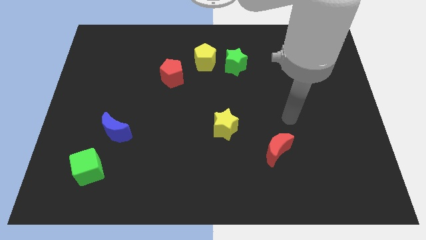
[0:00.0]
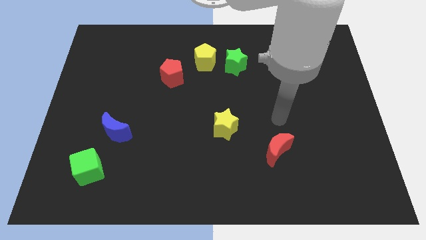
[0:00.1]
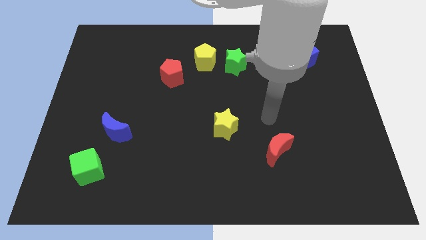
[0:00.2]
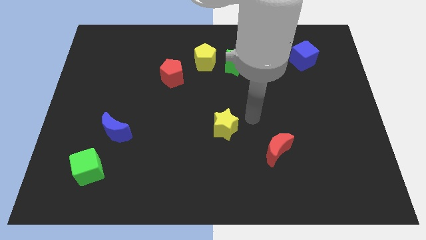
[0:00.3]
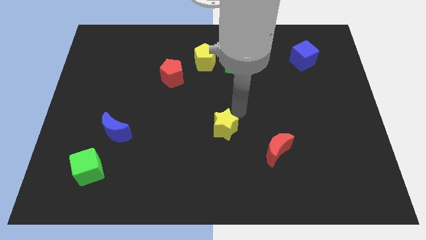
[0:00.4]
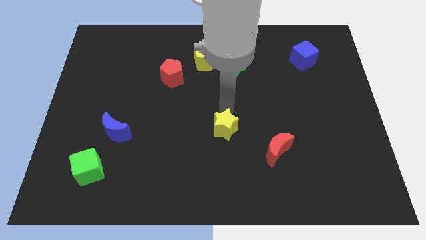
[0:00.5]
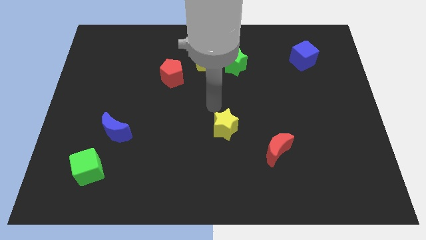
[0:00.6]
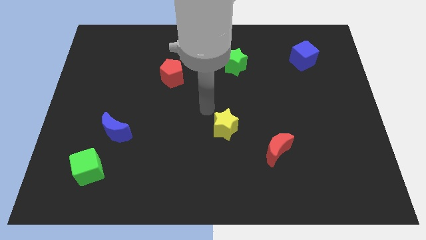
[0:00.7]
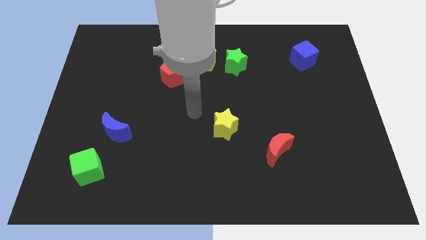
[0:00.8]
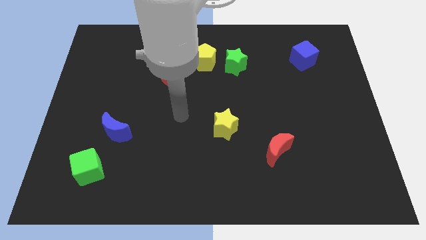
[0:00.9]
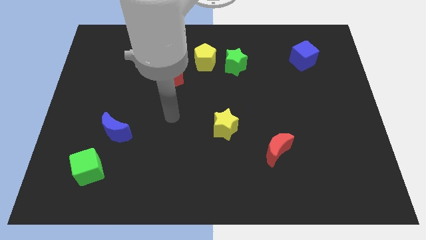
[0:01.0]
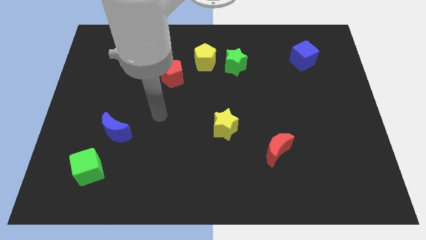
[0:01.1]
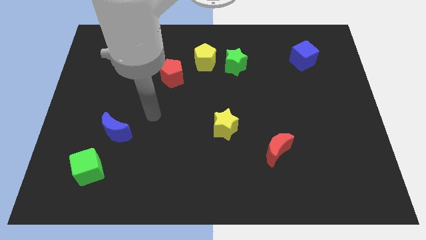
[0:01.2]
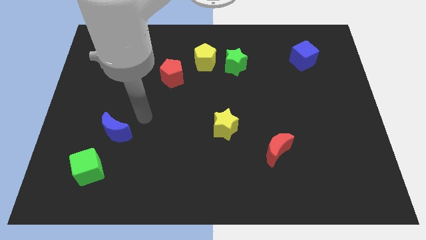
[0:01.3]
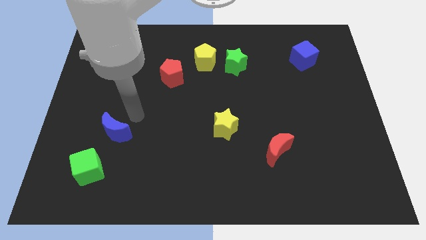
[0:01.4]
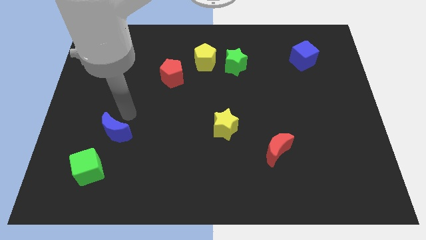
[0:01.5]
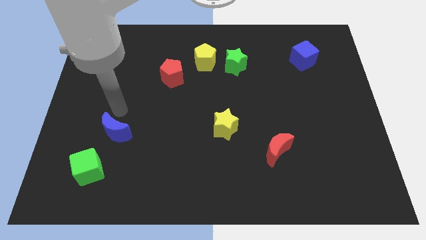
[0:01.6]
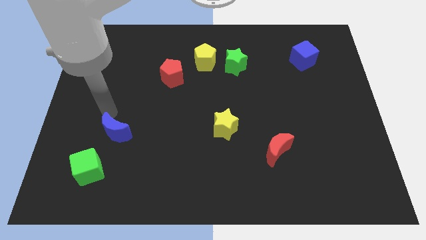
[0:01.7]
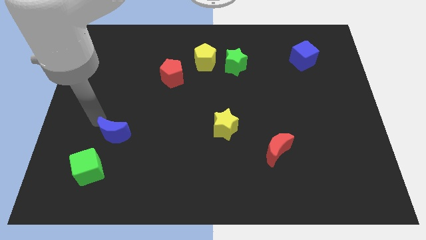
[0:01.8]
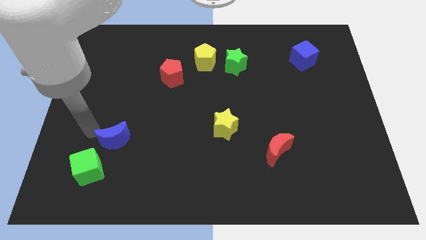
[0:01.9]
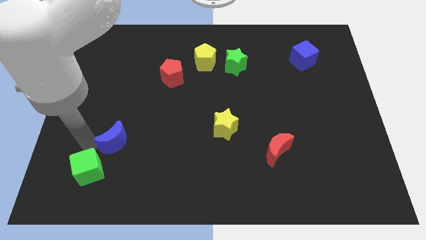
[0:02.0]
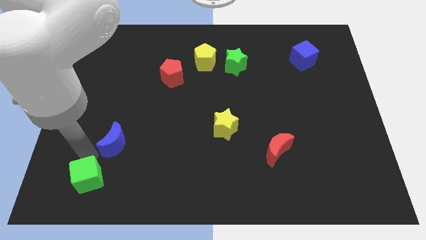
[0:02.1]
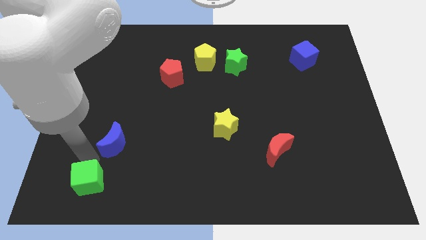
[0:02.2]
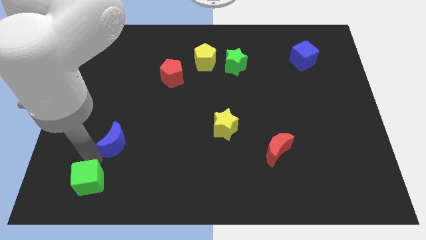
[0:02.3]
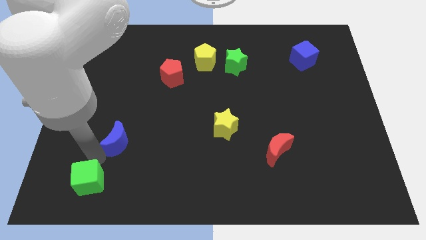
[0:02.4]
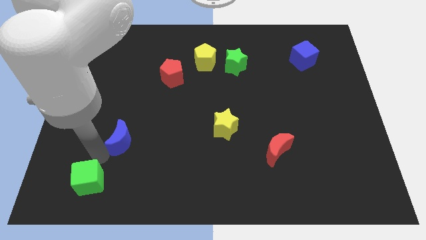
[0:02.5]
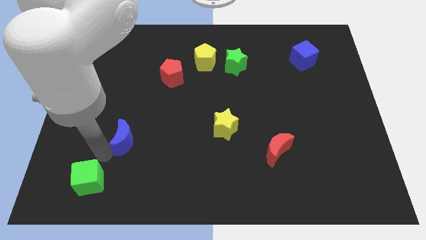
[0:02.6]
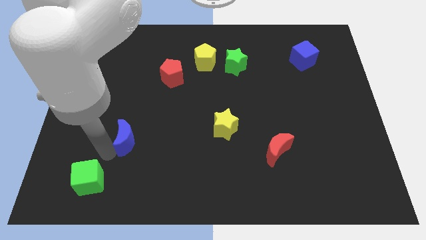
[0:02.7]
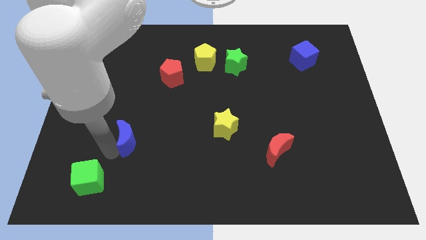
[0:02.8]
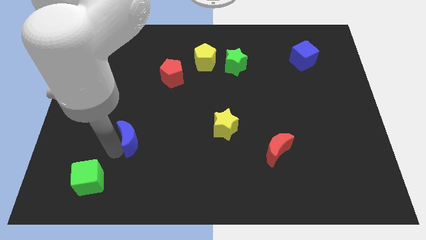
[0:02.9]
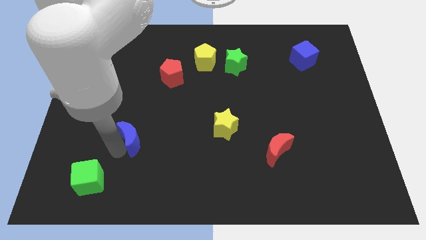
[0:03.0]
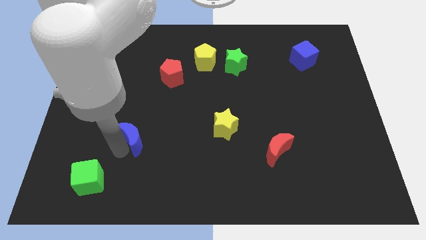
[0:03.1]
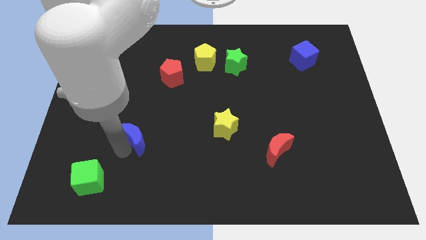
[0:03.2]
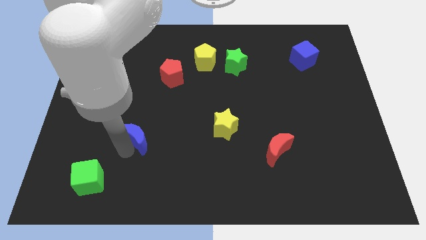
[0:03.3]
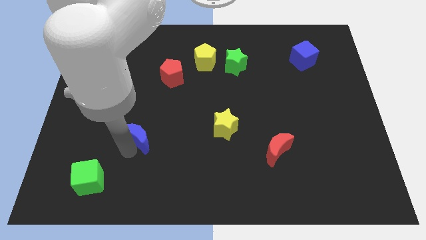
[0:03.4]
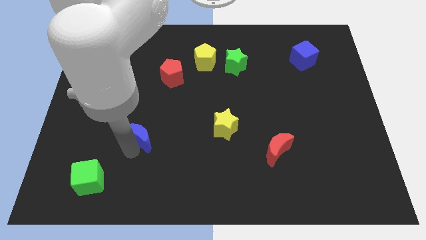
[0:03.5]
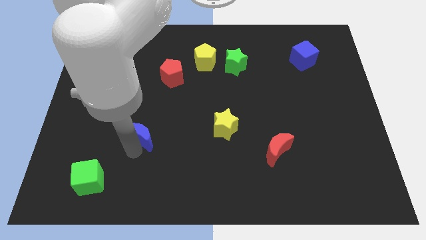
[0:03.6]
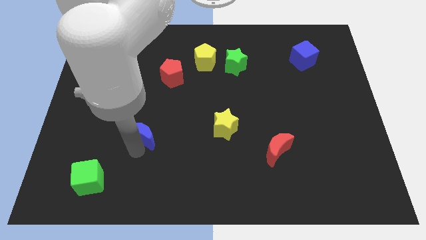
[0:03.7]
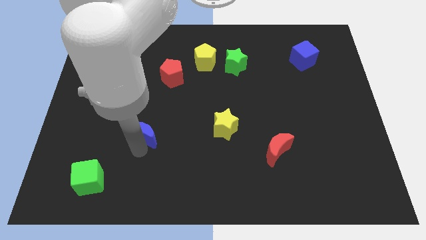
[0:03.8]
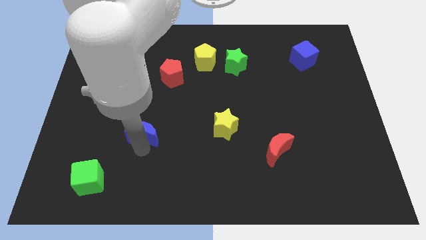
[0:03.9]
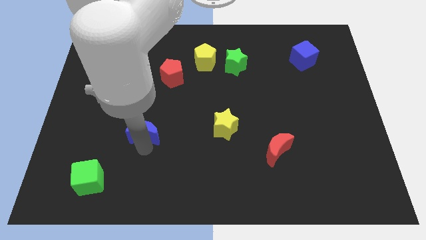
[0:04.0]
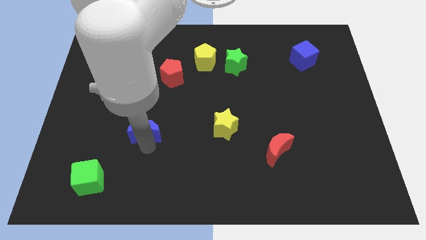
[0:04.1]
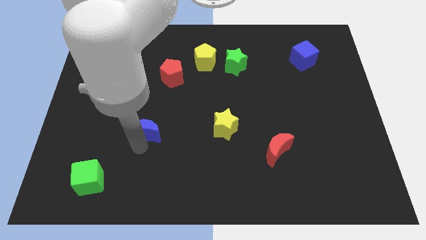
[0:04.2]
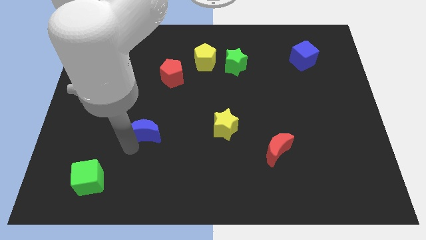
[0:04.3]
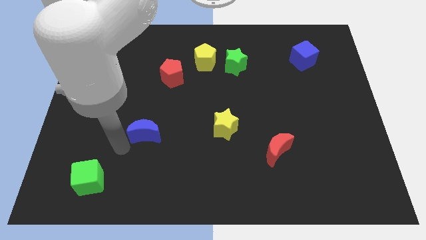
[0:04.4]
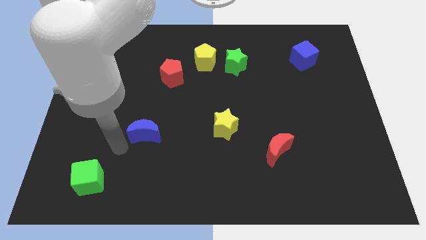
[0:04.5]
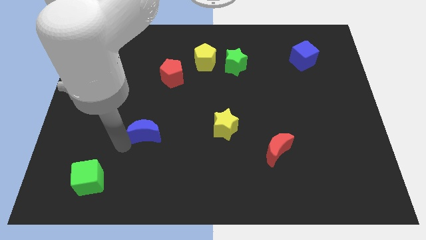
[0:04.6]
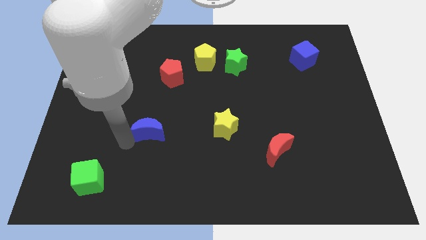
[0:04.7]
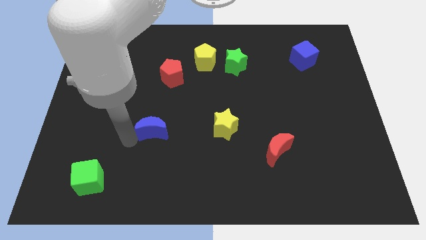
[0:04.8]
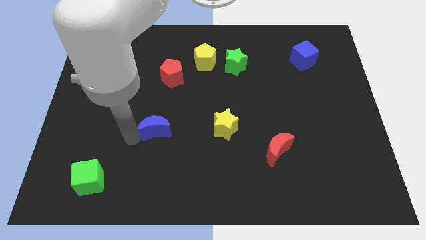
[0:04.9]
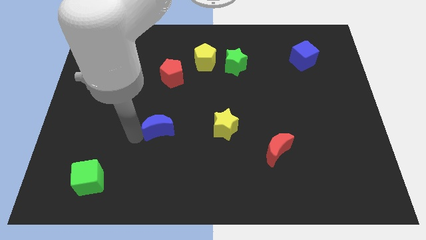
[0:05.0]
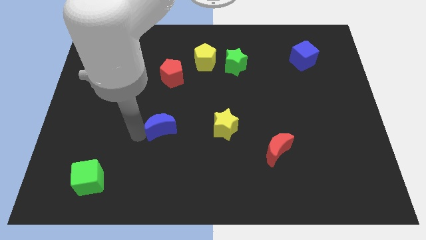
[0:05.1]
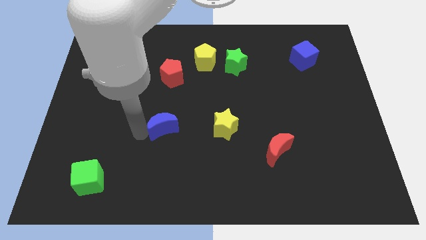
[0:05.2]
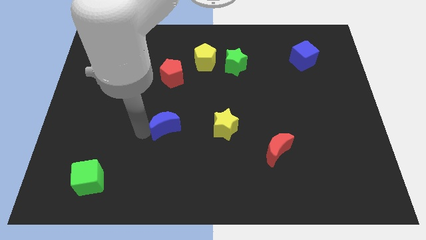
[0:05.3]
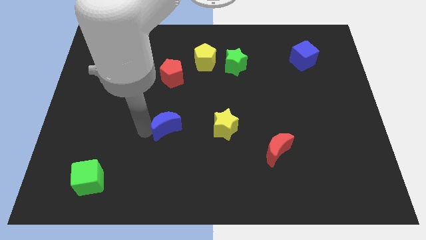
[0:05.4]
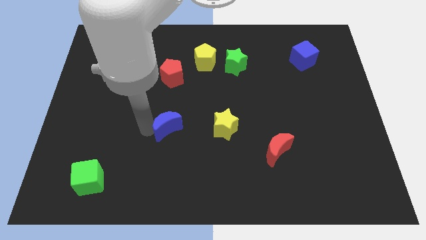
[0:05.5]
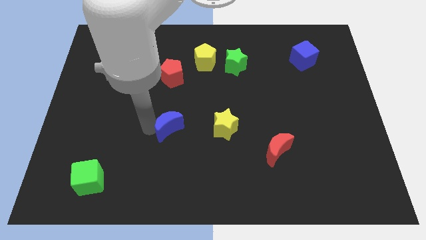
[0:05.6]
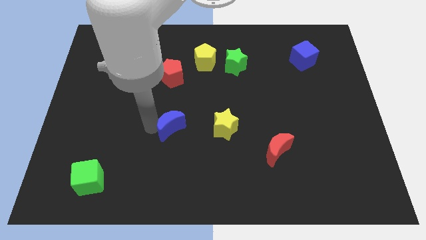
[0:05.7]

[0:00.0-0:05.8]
push the blue moon to the center of the board

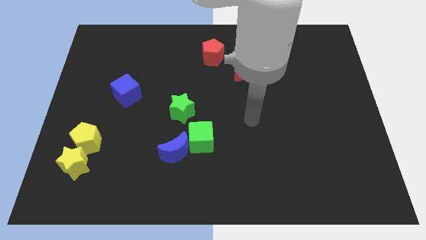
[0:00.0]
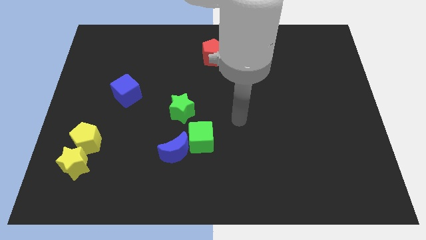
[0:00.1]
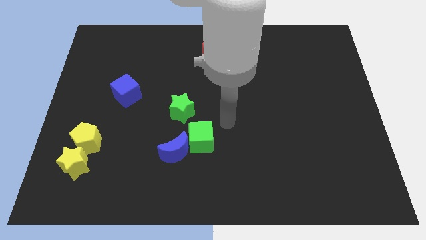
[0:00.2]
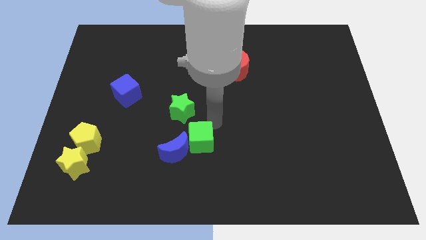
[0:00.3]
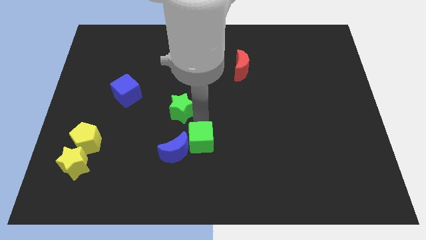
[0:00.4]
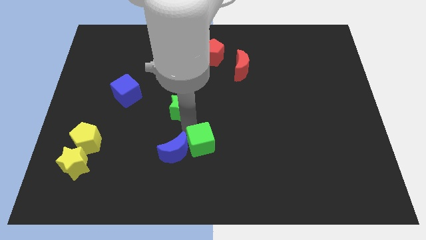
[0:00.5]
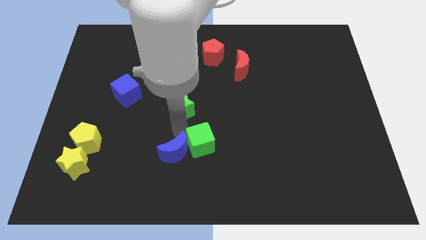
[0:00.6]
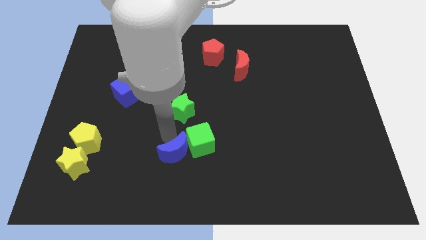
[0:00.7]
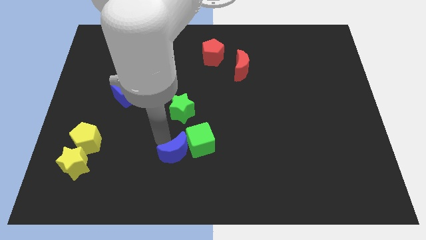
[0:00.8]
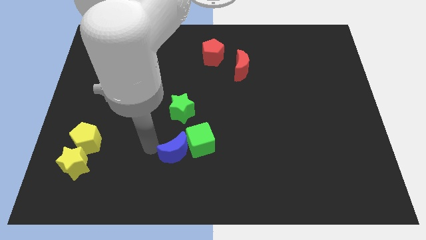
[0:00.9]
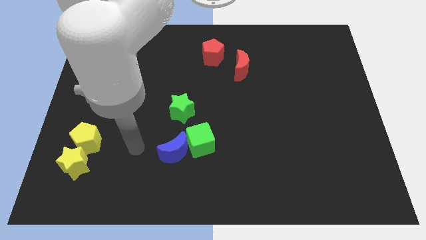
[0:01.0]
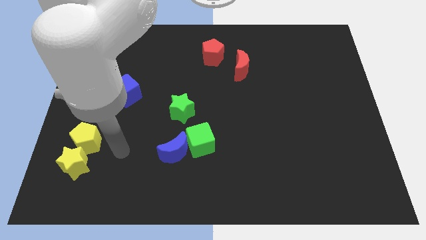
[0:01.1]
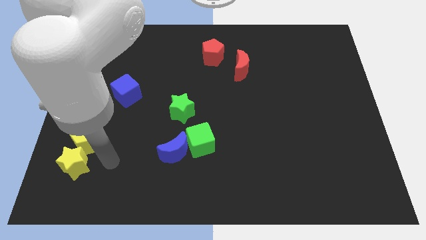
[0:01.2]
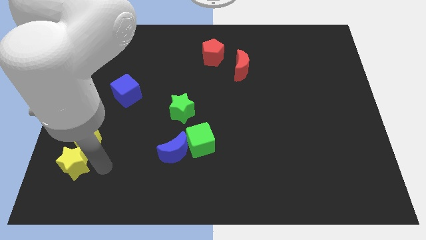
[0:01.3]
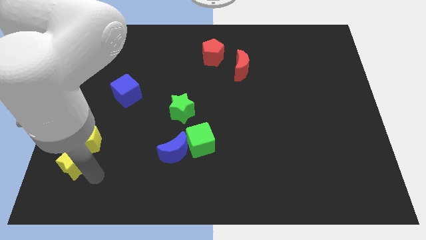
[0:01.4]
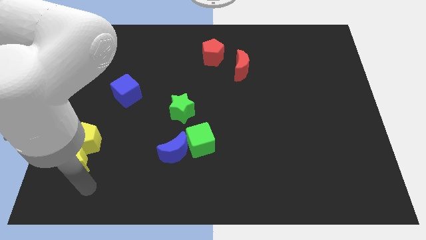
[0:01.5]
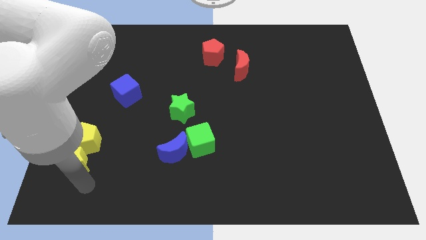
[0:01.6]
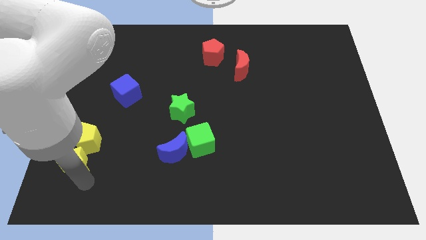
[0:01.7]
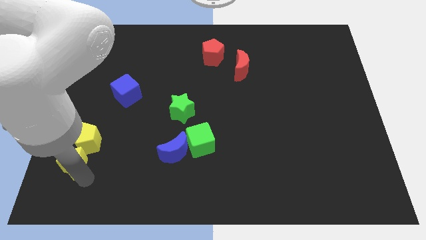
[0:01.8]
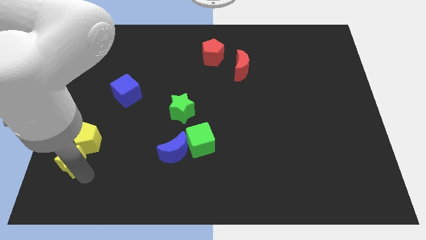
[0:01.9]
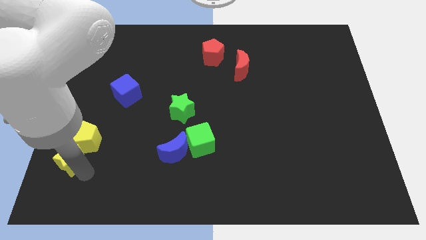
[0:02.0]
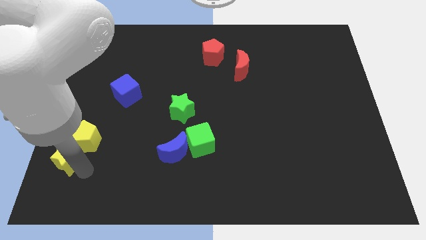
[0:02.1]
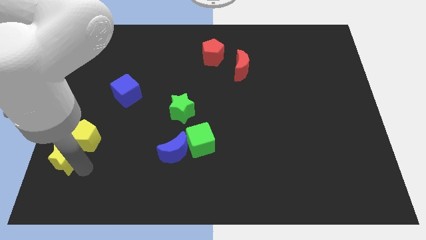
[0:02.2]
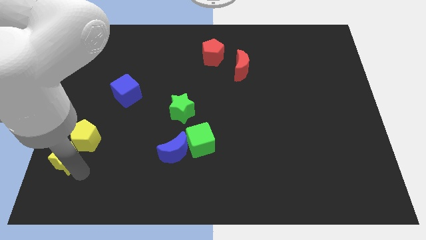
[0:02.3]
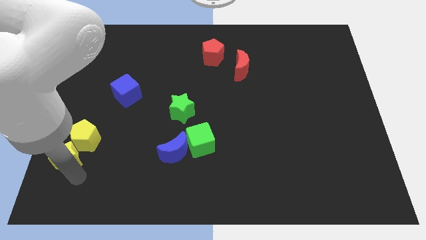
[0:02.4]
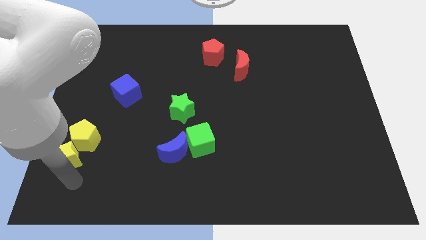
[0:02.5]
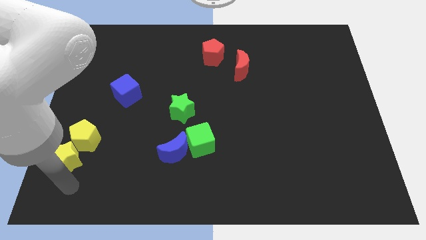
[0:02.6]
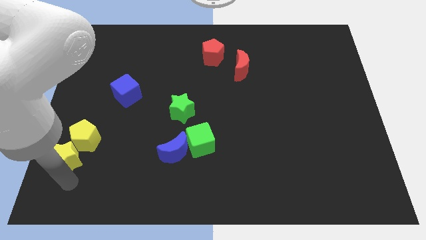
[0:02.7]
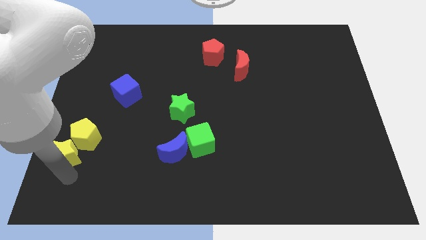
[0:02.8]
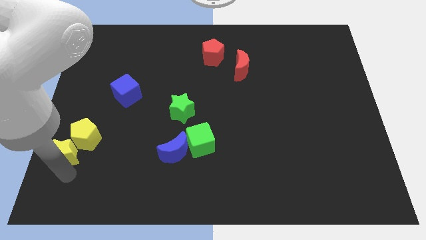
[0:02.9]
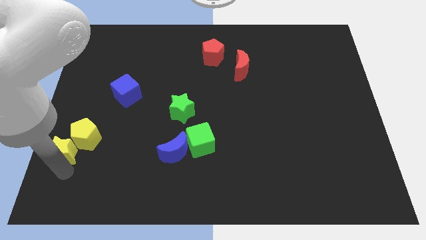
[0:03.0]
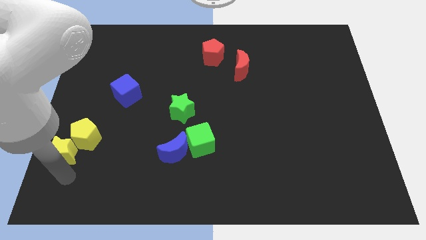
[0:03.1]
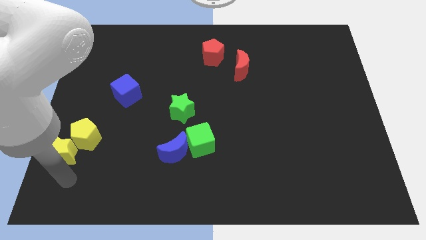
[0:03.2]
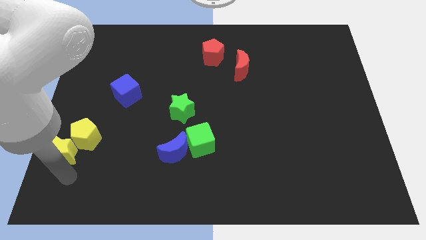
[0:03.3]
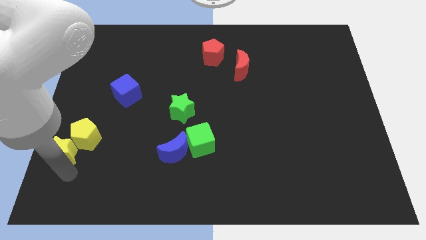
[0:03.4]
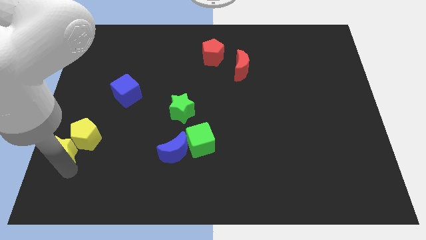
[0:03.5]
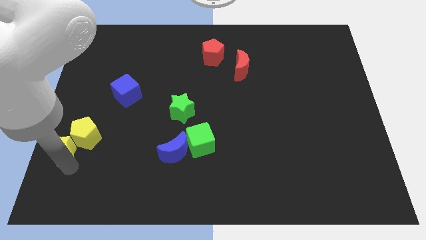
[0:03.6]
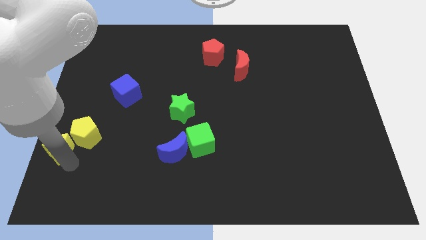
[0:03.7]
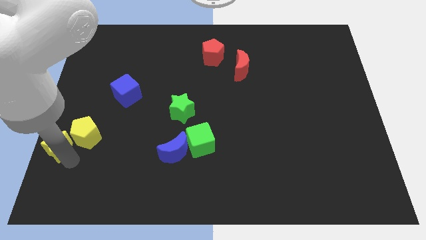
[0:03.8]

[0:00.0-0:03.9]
move the yellow star to the left side of the board
